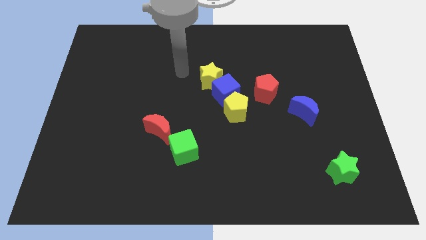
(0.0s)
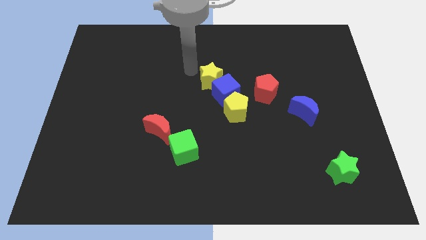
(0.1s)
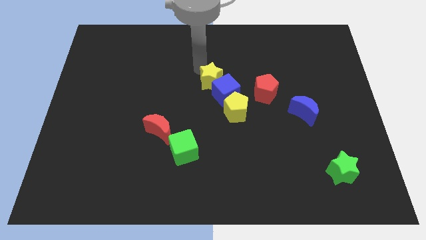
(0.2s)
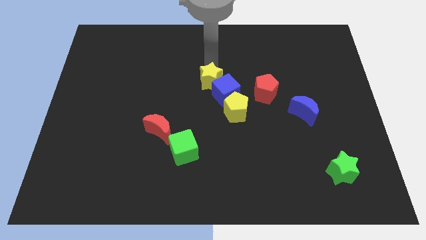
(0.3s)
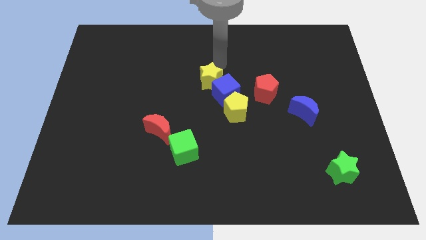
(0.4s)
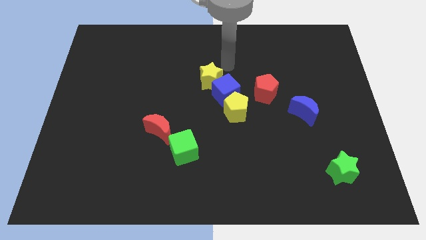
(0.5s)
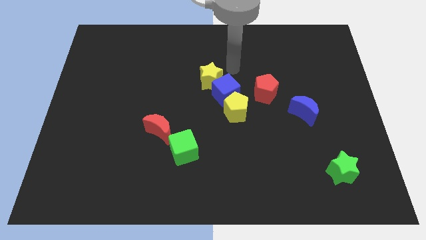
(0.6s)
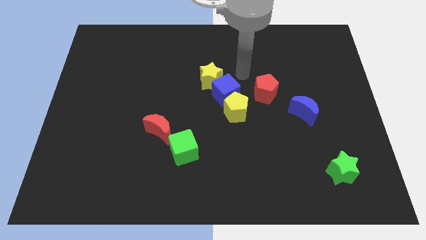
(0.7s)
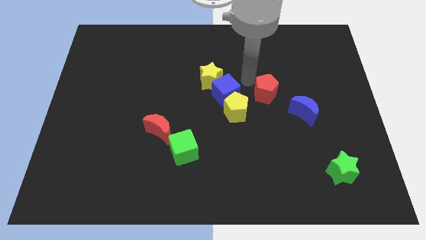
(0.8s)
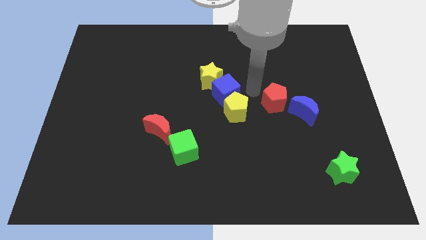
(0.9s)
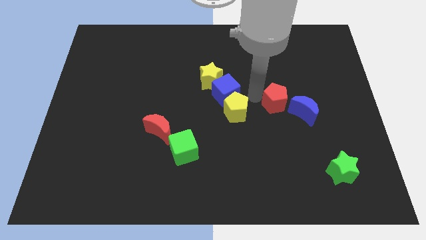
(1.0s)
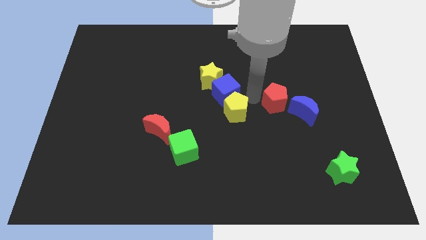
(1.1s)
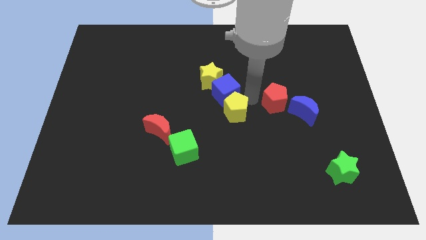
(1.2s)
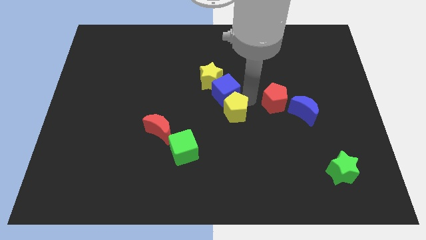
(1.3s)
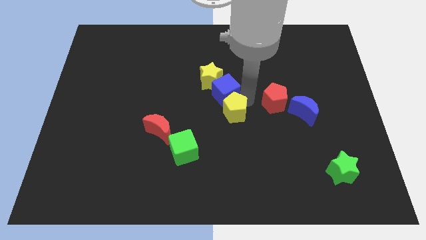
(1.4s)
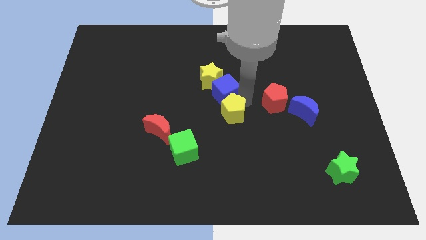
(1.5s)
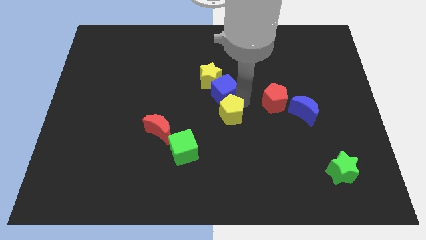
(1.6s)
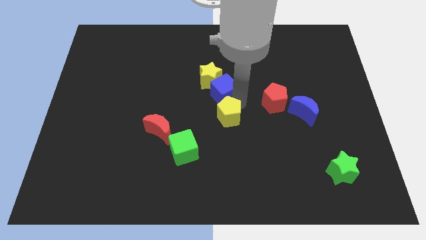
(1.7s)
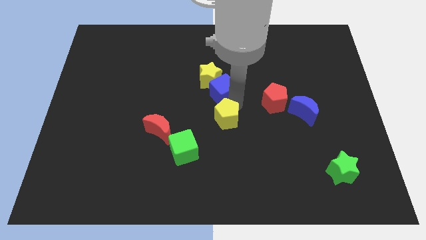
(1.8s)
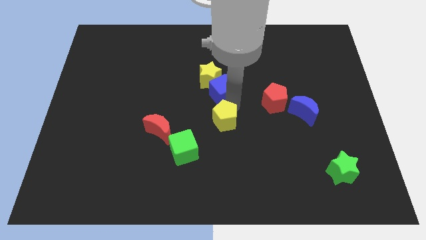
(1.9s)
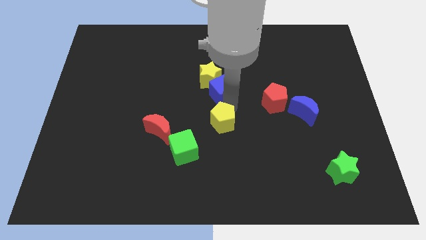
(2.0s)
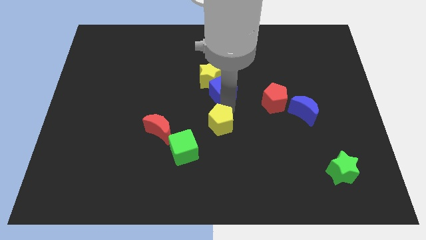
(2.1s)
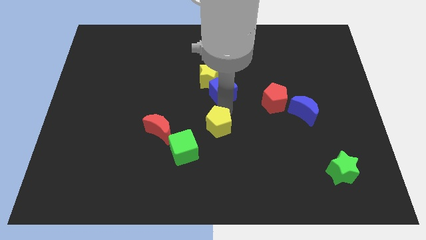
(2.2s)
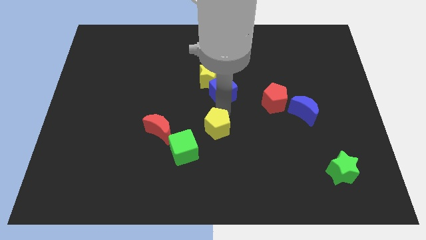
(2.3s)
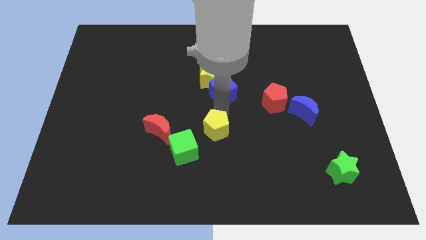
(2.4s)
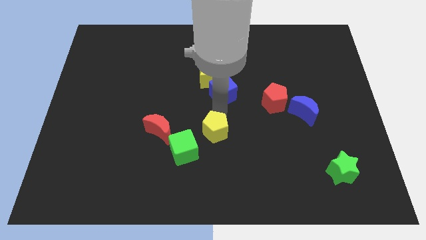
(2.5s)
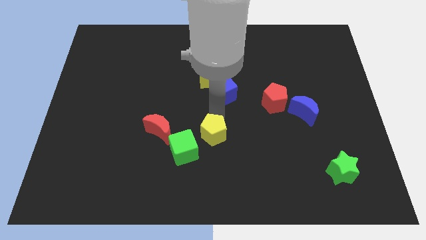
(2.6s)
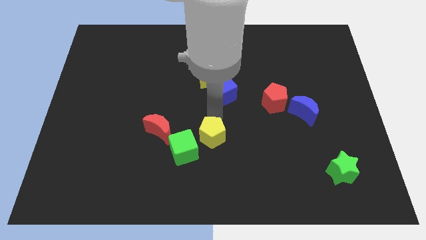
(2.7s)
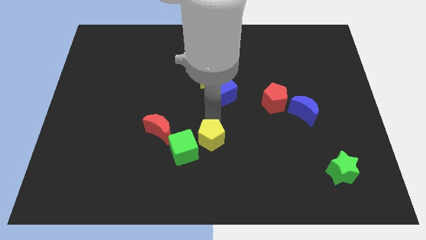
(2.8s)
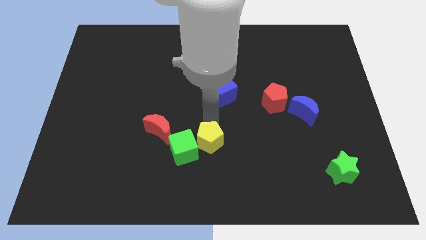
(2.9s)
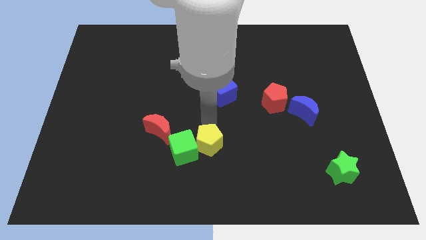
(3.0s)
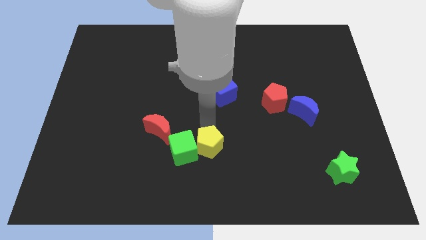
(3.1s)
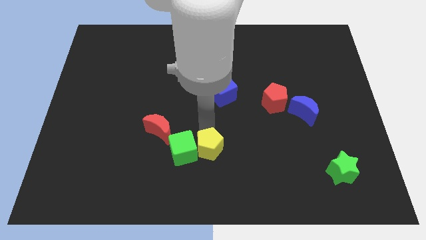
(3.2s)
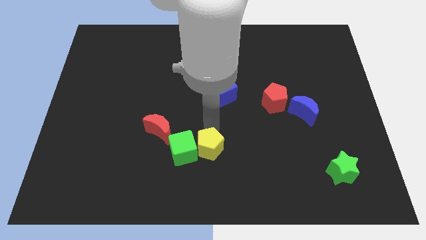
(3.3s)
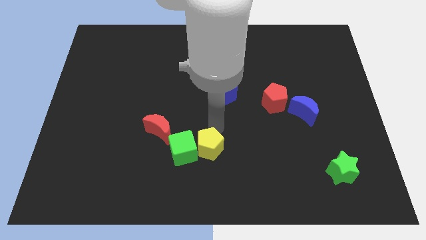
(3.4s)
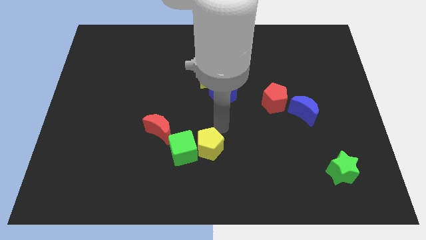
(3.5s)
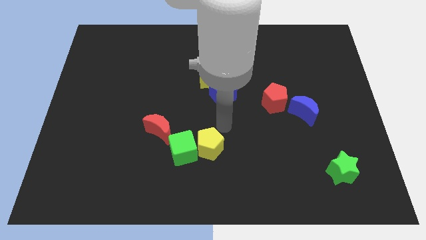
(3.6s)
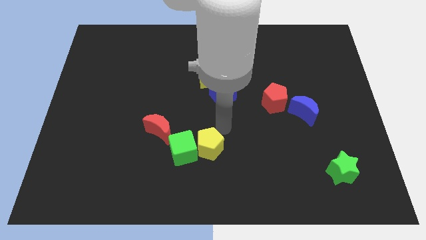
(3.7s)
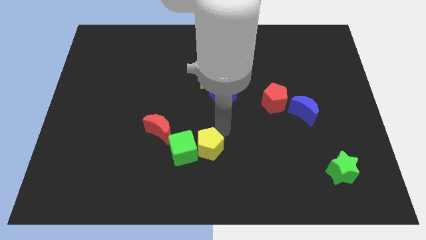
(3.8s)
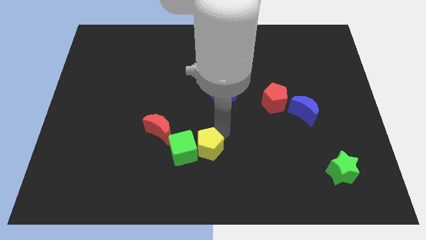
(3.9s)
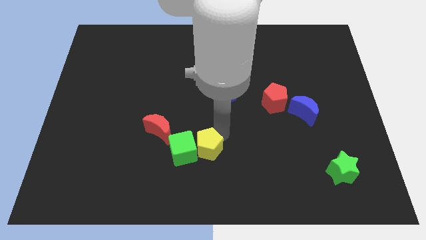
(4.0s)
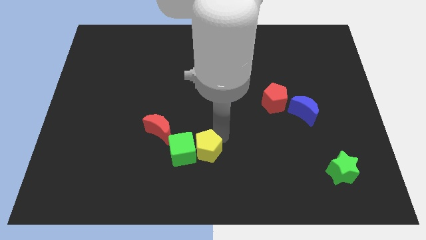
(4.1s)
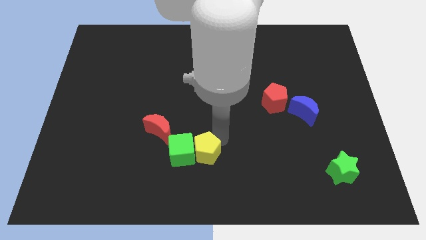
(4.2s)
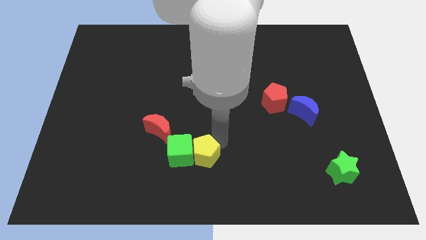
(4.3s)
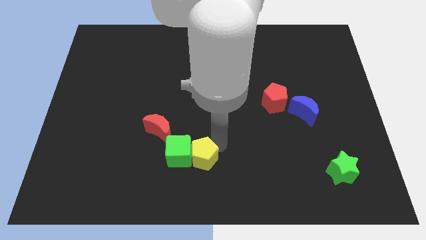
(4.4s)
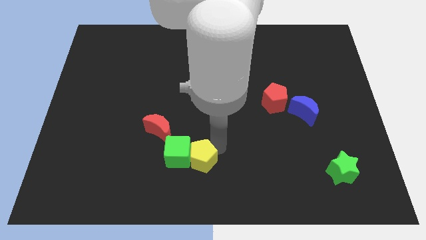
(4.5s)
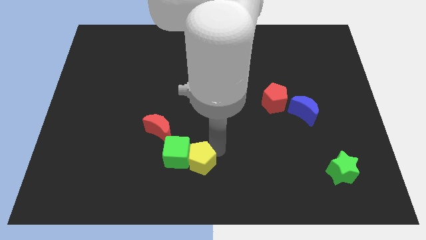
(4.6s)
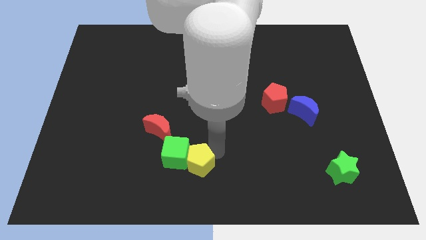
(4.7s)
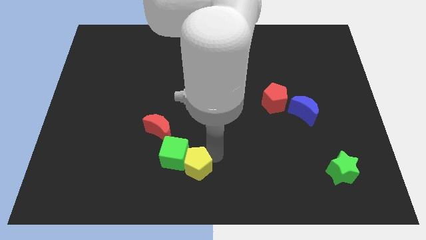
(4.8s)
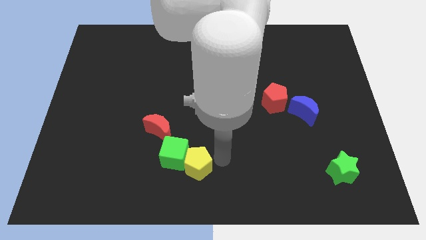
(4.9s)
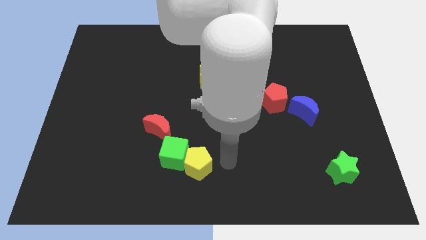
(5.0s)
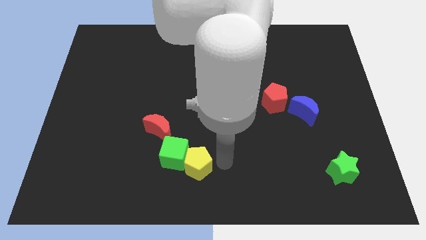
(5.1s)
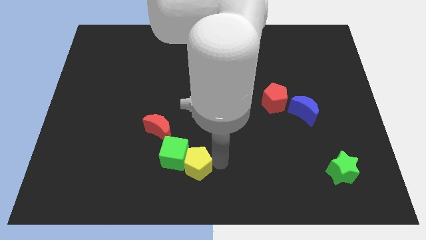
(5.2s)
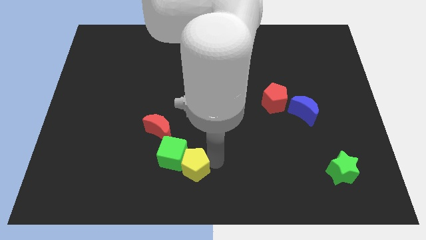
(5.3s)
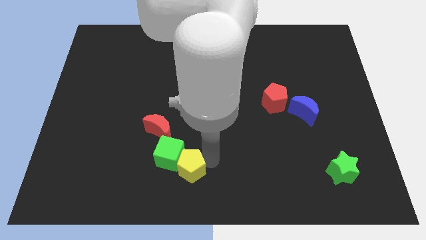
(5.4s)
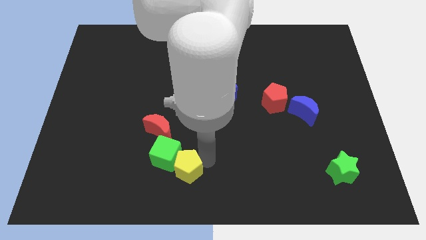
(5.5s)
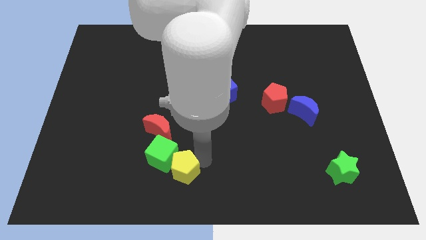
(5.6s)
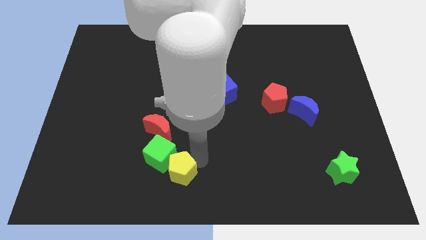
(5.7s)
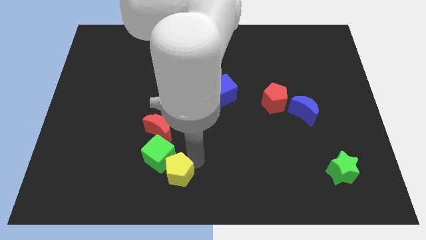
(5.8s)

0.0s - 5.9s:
push the yellow pentagon to the bottom of the red moon

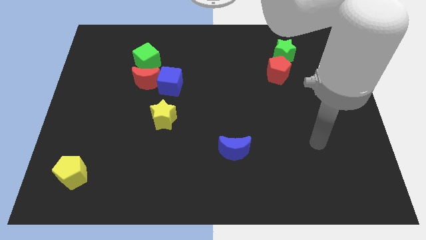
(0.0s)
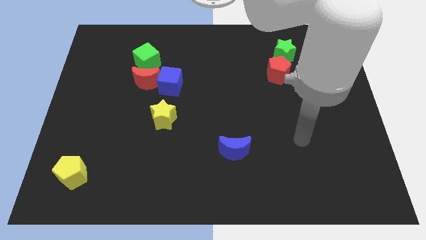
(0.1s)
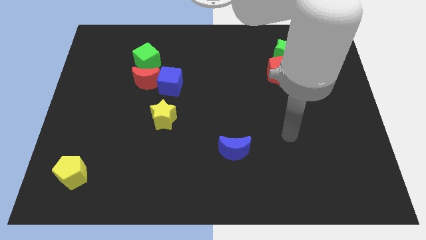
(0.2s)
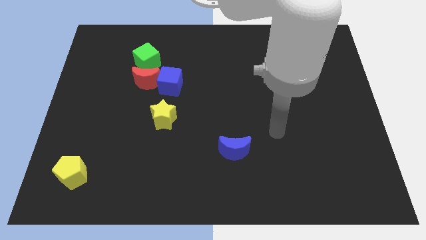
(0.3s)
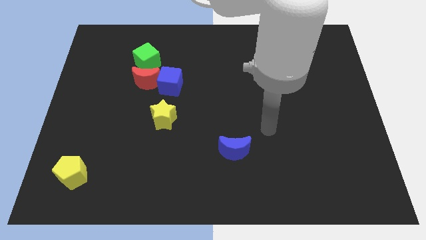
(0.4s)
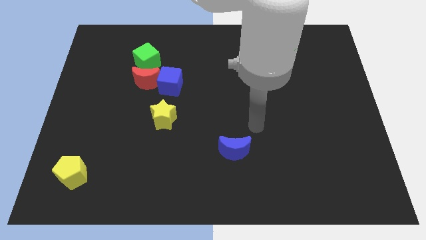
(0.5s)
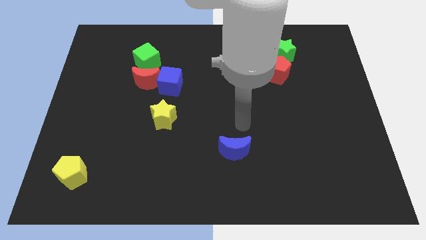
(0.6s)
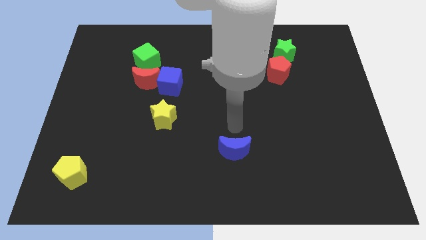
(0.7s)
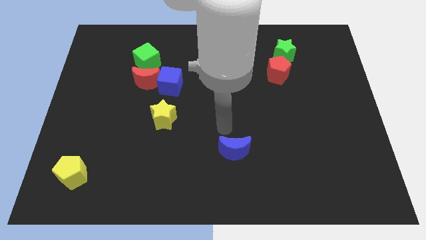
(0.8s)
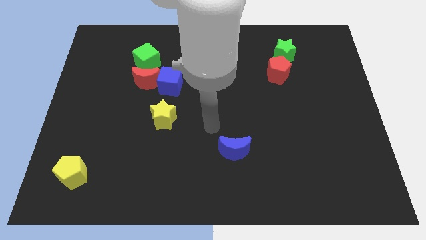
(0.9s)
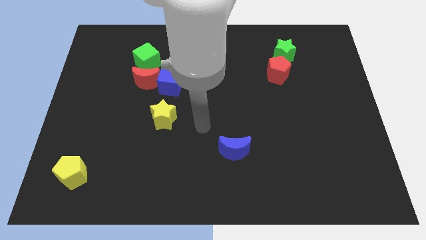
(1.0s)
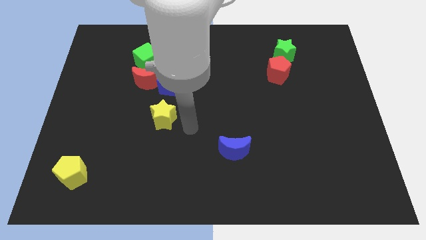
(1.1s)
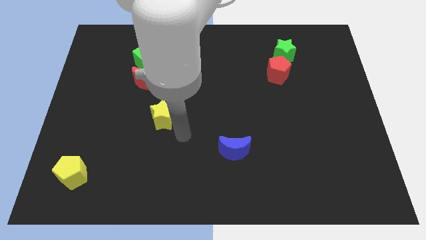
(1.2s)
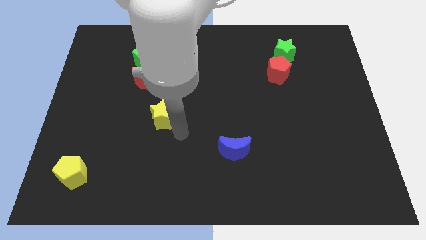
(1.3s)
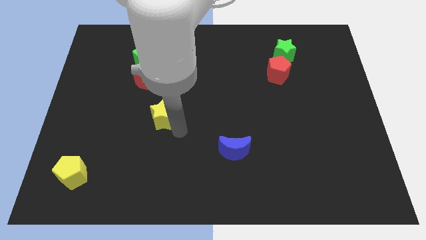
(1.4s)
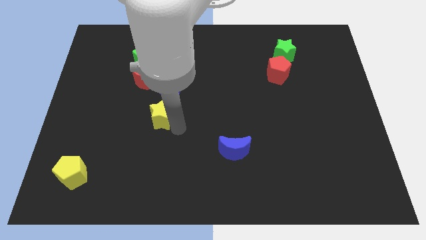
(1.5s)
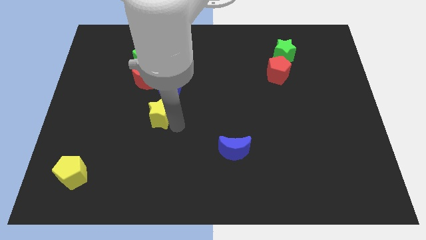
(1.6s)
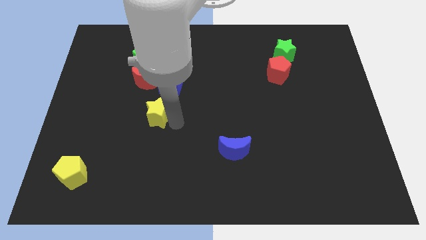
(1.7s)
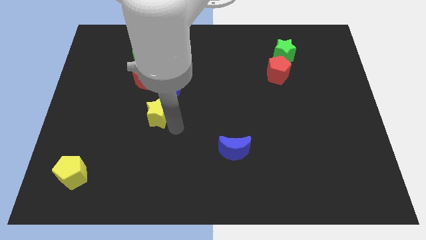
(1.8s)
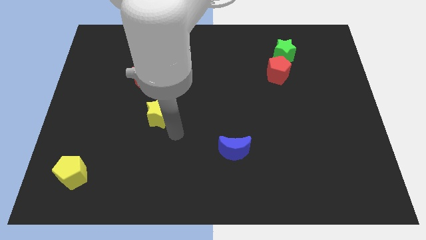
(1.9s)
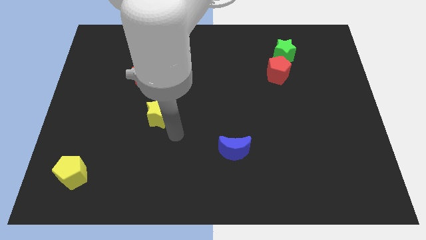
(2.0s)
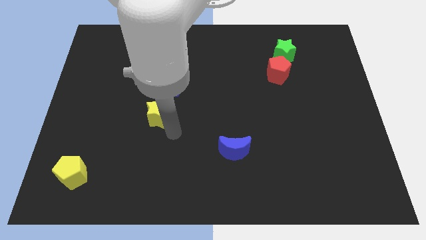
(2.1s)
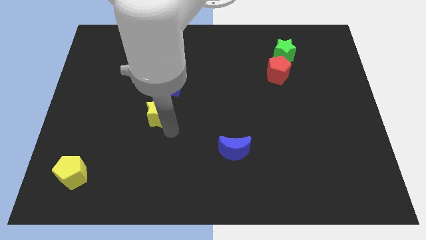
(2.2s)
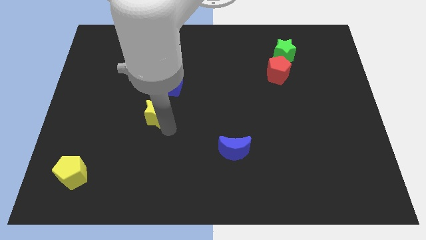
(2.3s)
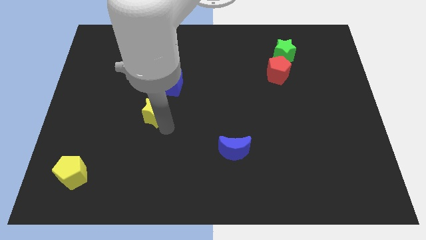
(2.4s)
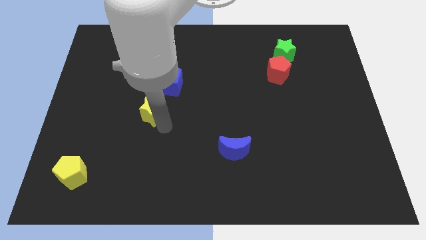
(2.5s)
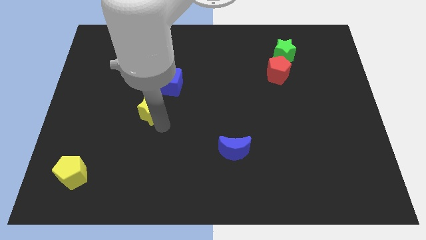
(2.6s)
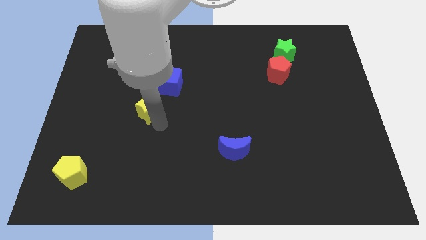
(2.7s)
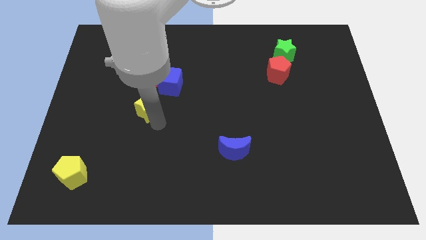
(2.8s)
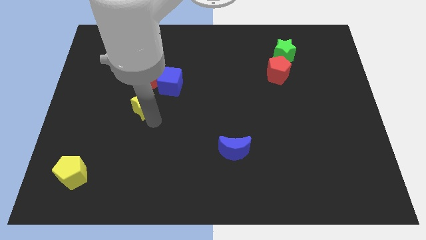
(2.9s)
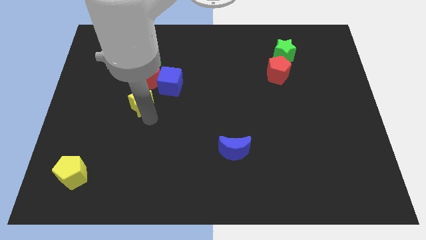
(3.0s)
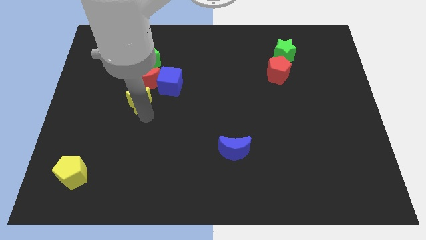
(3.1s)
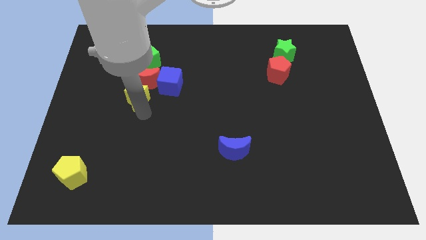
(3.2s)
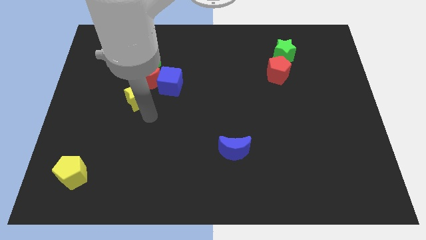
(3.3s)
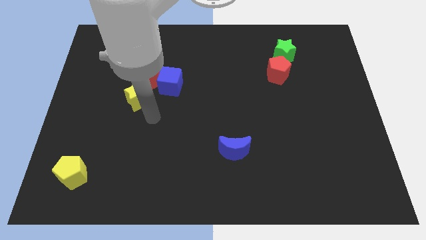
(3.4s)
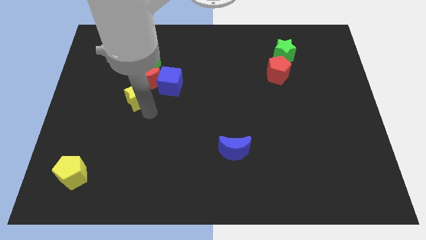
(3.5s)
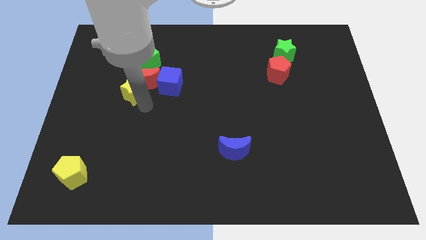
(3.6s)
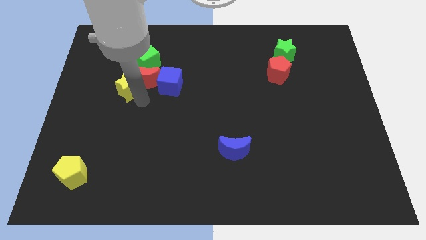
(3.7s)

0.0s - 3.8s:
slide the yellow star to the bottom left side of the green cube
